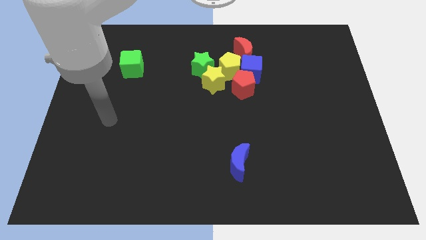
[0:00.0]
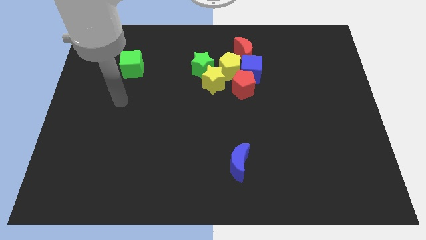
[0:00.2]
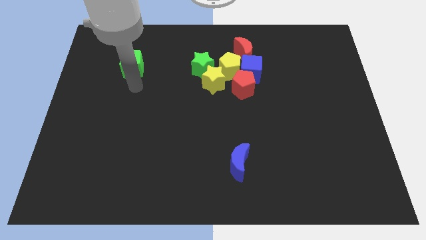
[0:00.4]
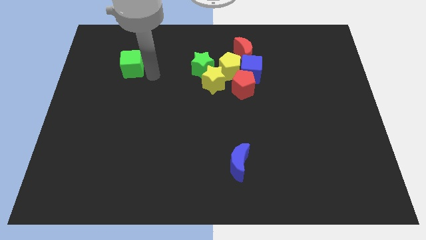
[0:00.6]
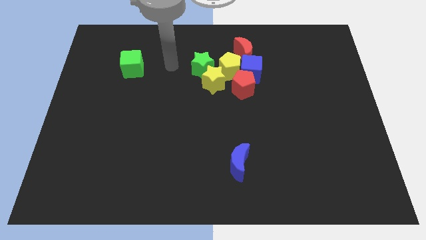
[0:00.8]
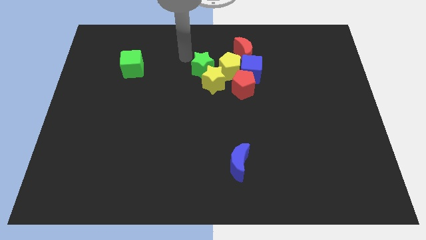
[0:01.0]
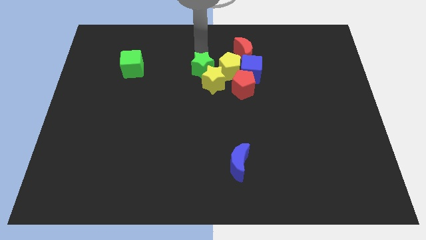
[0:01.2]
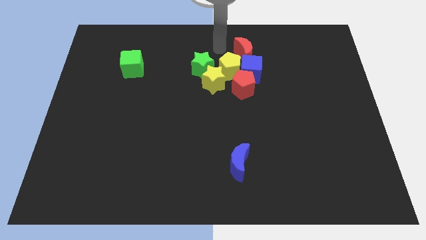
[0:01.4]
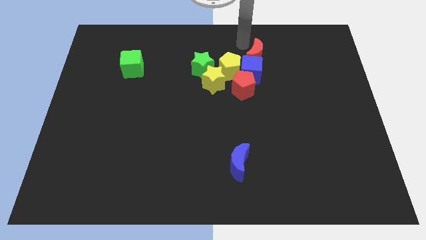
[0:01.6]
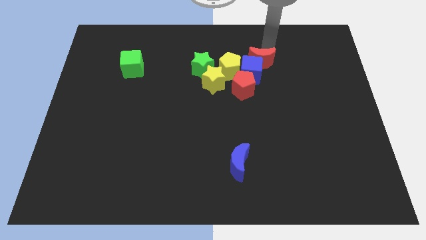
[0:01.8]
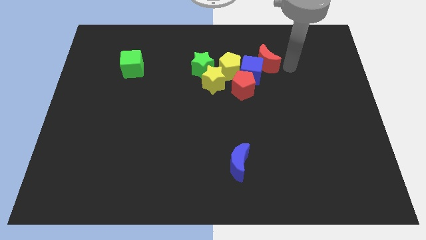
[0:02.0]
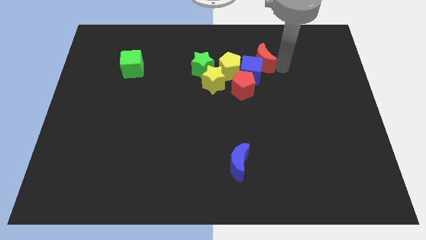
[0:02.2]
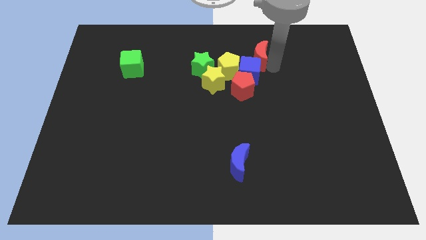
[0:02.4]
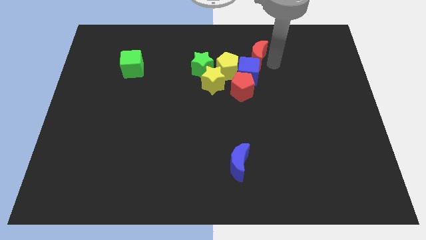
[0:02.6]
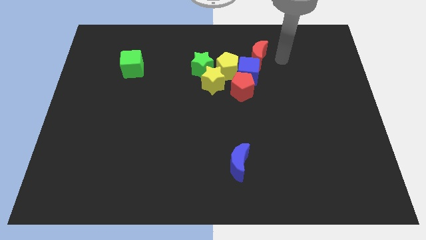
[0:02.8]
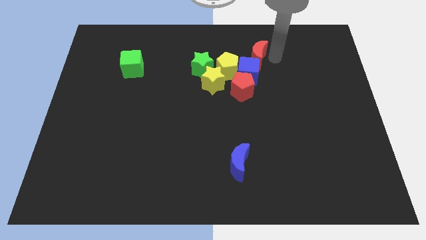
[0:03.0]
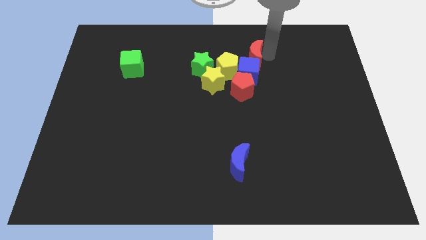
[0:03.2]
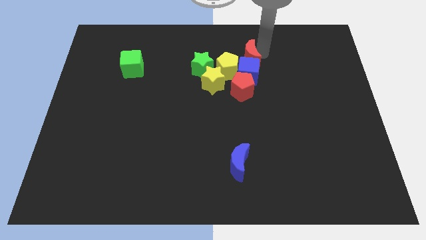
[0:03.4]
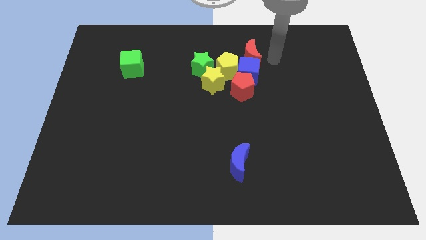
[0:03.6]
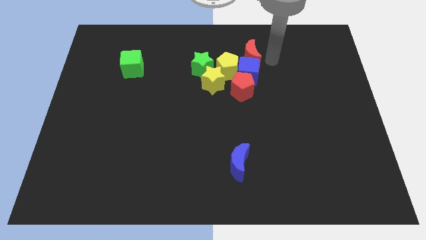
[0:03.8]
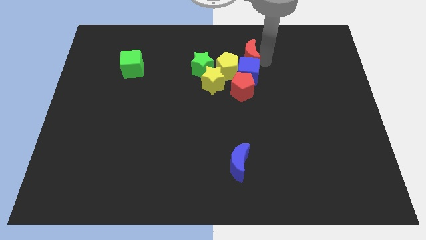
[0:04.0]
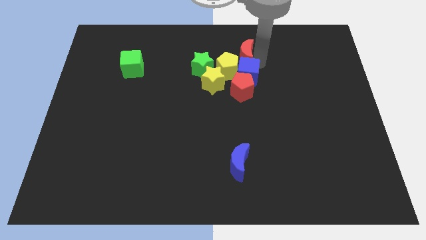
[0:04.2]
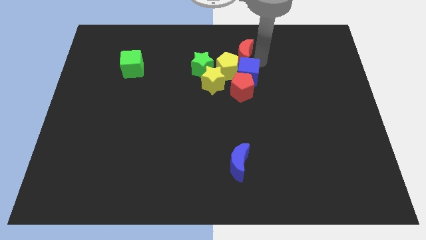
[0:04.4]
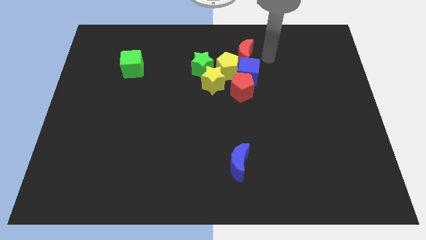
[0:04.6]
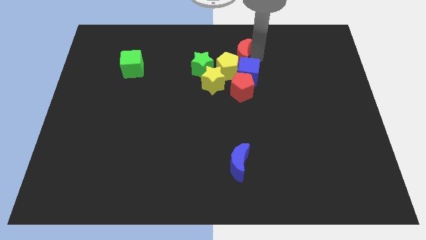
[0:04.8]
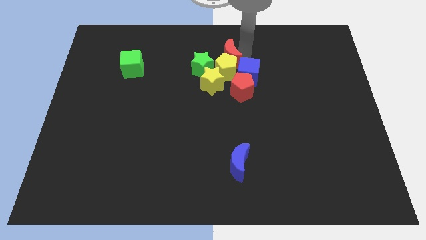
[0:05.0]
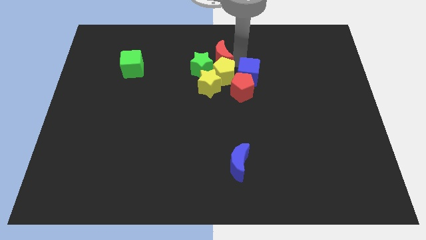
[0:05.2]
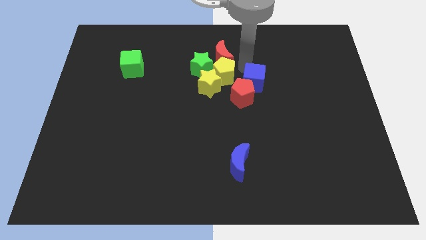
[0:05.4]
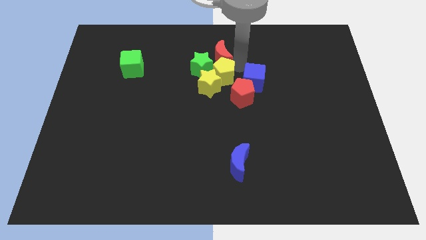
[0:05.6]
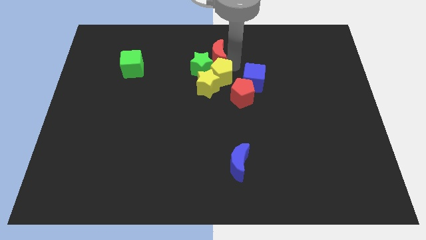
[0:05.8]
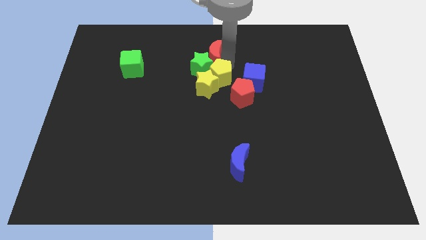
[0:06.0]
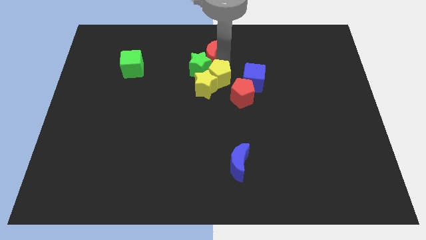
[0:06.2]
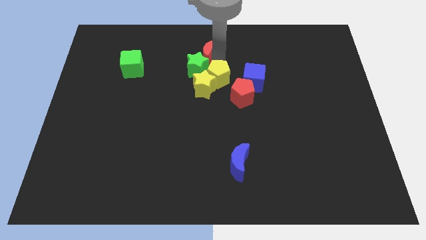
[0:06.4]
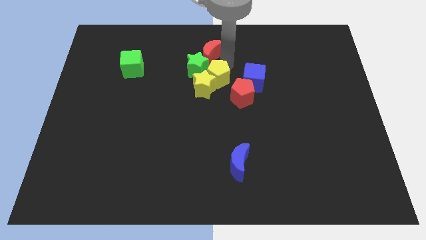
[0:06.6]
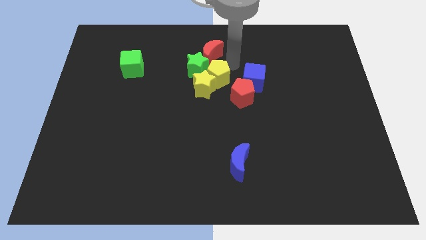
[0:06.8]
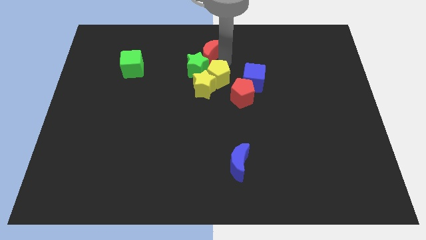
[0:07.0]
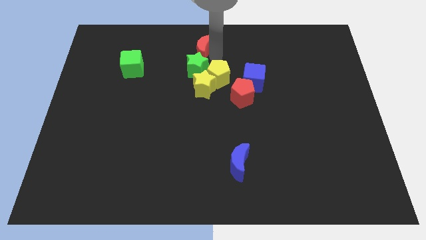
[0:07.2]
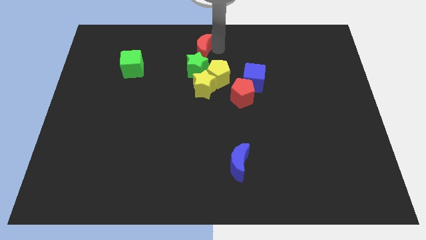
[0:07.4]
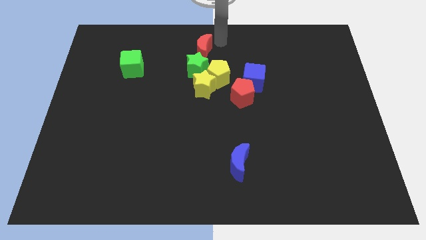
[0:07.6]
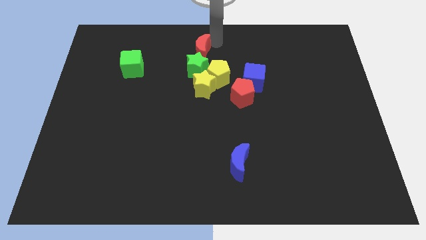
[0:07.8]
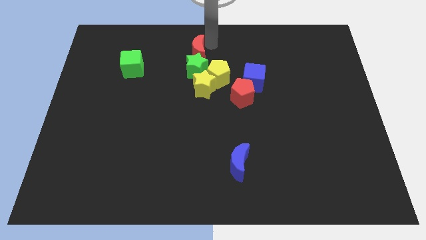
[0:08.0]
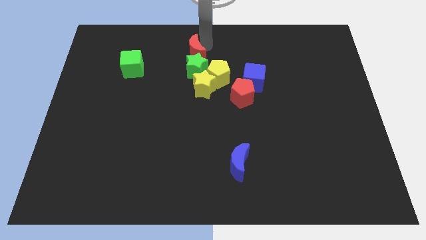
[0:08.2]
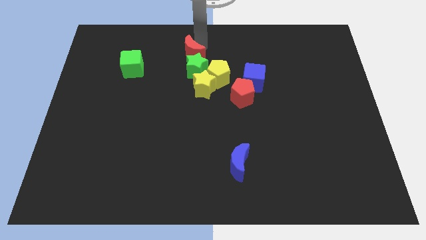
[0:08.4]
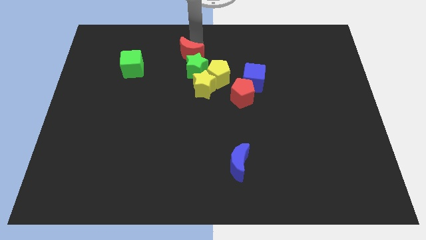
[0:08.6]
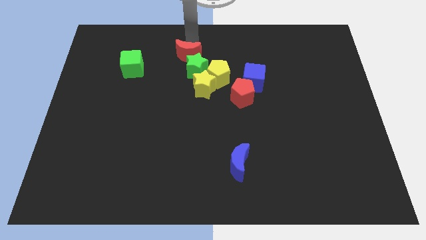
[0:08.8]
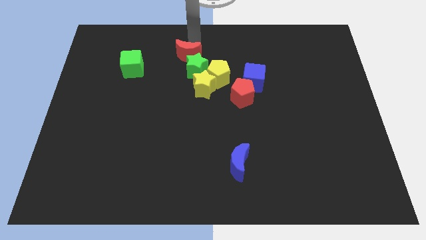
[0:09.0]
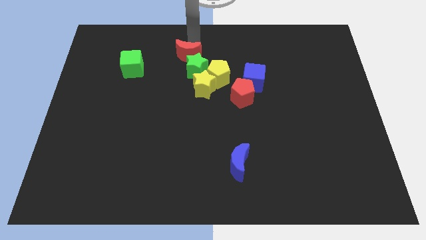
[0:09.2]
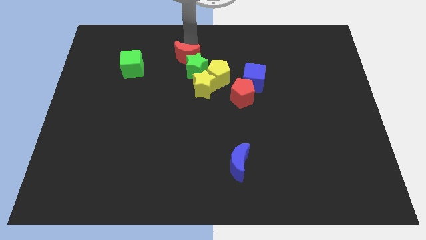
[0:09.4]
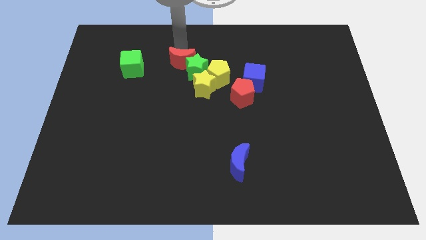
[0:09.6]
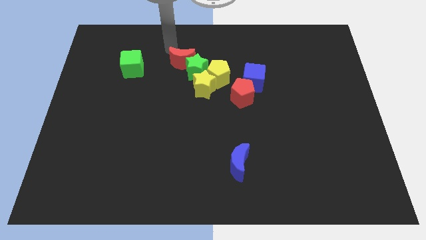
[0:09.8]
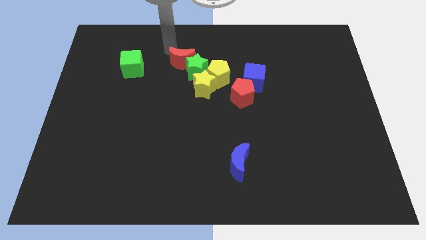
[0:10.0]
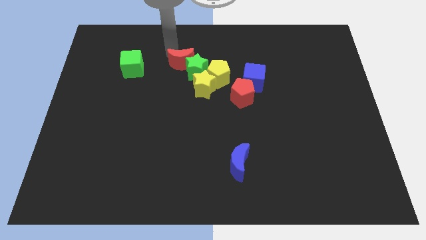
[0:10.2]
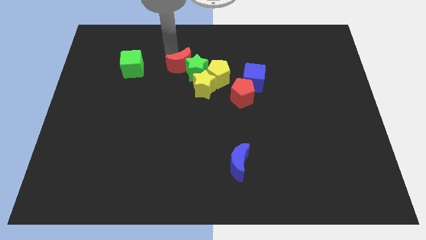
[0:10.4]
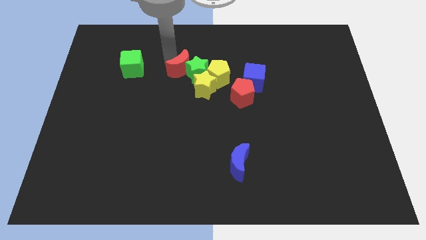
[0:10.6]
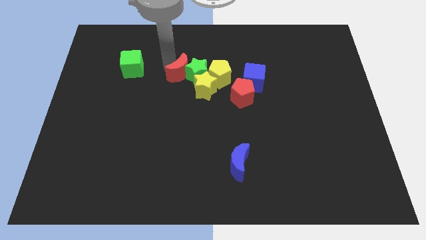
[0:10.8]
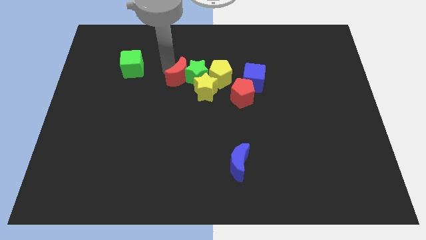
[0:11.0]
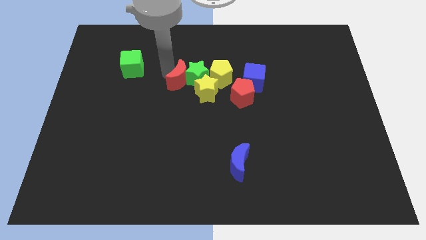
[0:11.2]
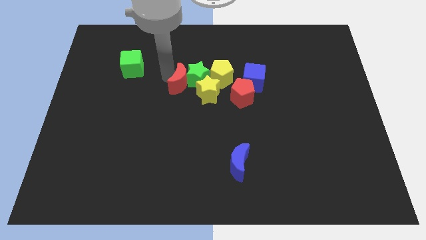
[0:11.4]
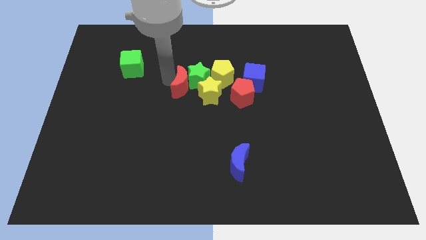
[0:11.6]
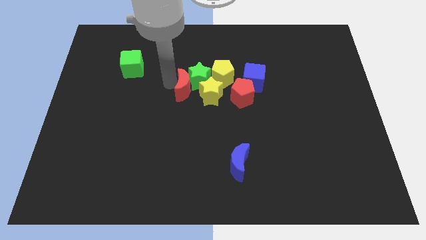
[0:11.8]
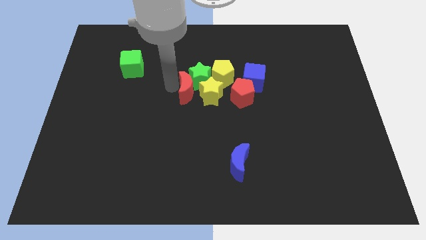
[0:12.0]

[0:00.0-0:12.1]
move the red moon next to the yellow star

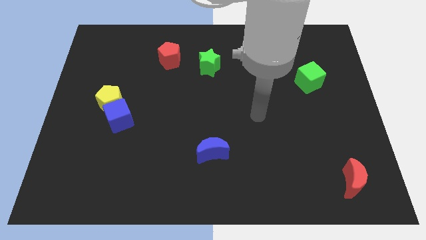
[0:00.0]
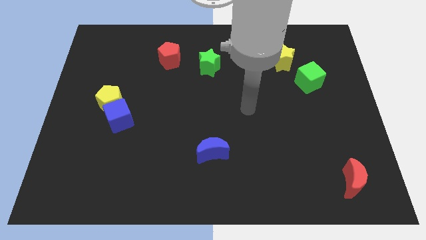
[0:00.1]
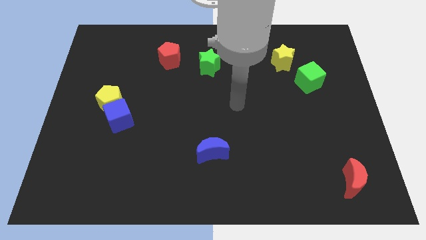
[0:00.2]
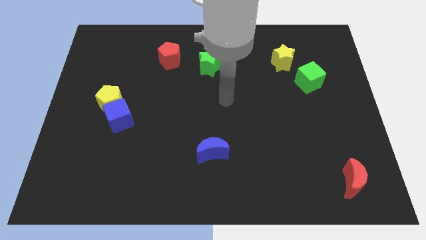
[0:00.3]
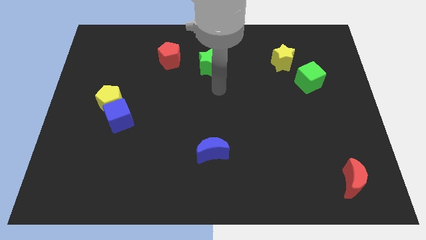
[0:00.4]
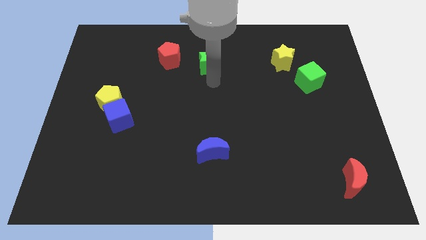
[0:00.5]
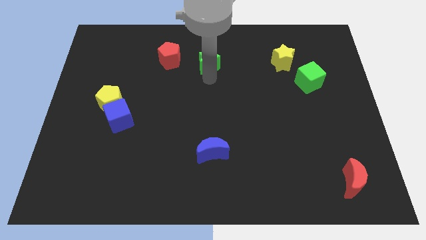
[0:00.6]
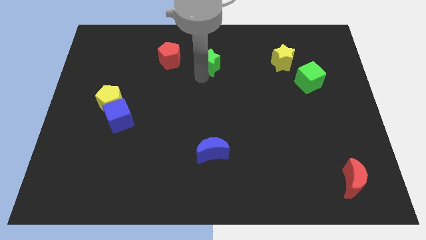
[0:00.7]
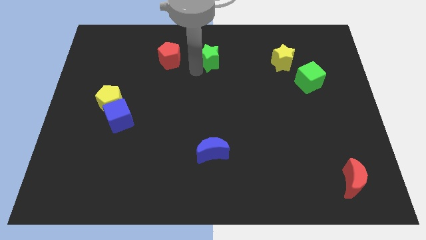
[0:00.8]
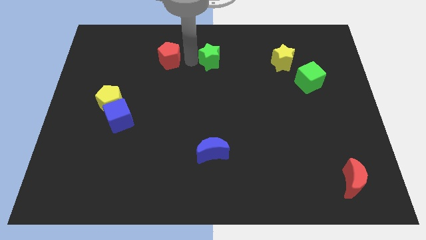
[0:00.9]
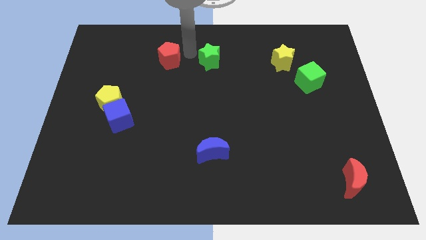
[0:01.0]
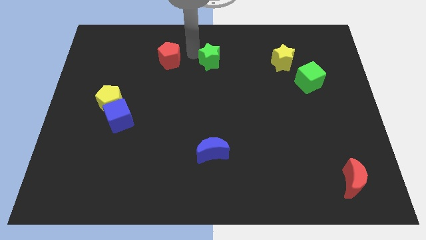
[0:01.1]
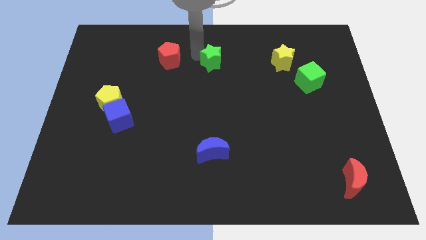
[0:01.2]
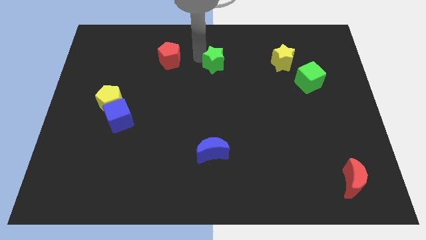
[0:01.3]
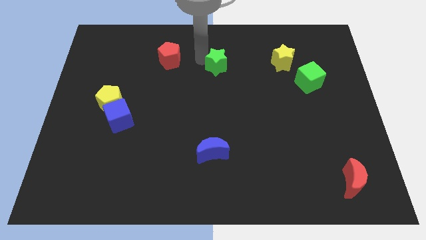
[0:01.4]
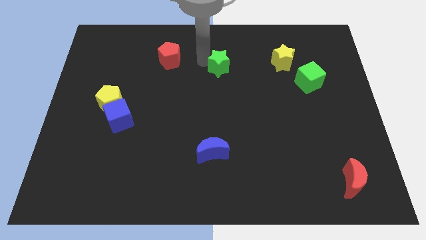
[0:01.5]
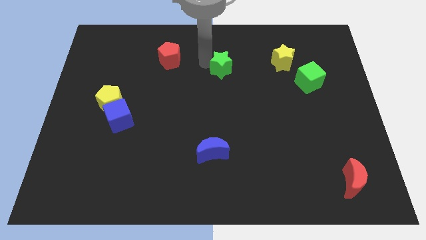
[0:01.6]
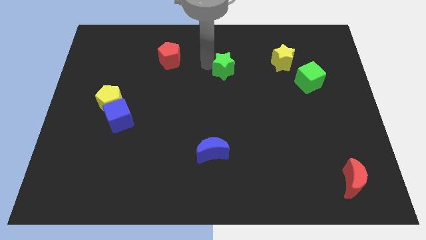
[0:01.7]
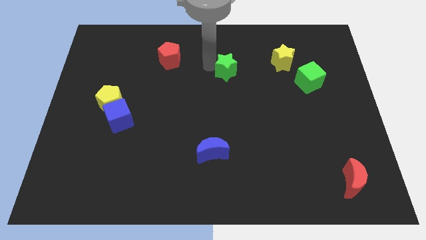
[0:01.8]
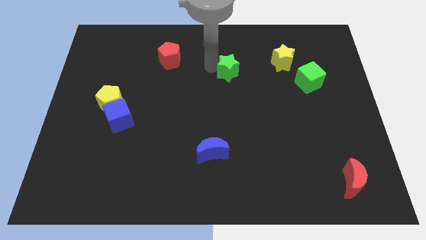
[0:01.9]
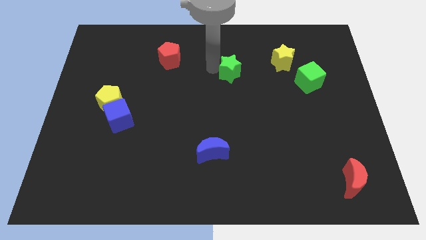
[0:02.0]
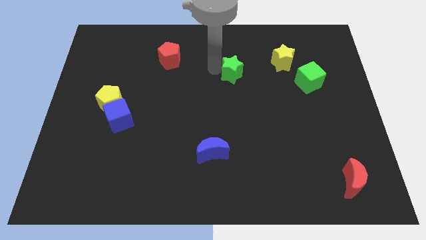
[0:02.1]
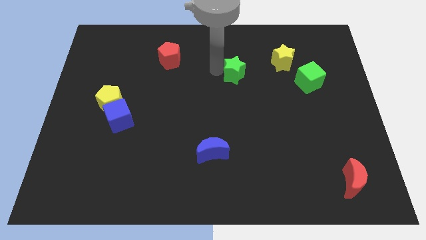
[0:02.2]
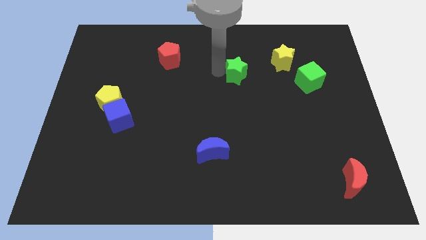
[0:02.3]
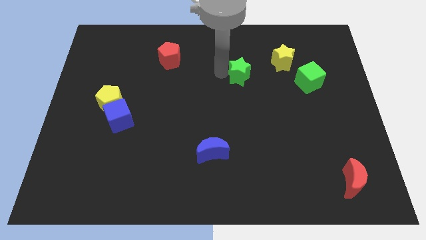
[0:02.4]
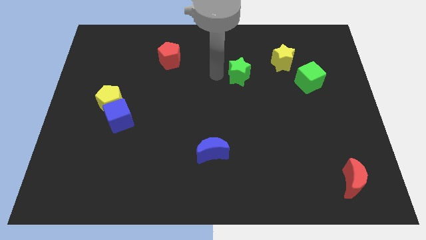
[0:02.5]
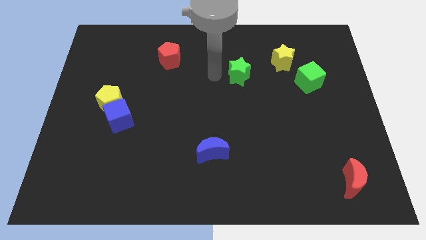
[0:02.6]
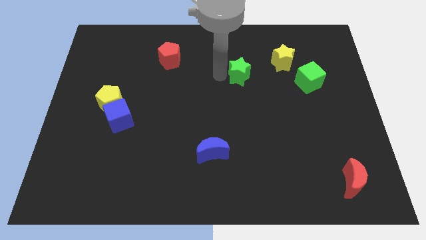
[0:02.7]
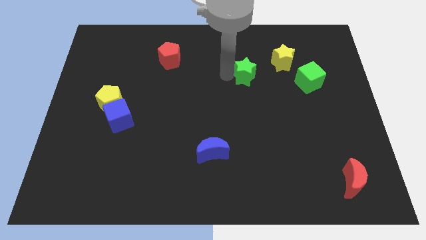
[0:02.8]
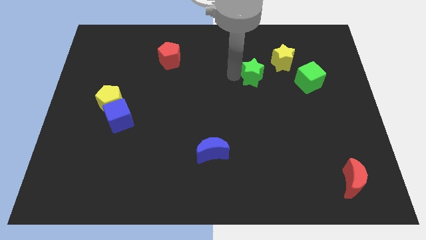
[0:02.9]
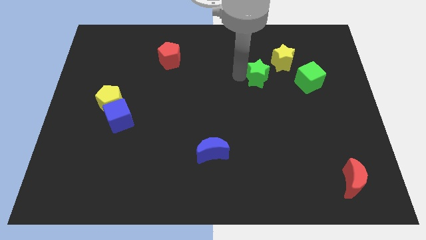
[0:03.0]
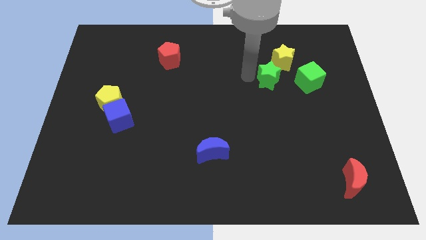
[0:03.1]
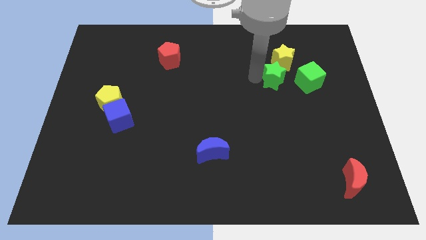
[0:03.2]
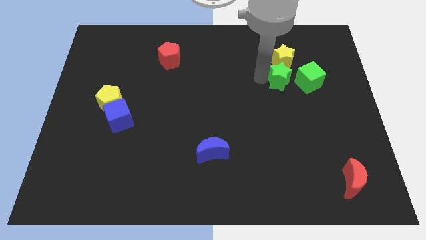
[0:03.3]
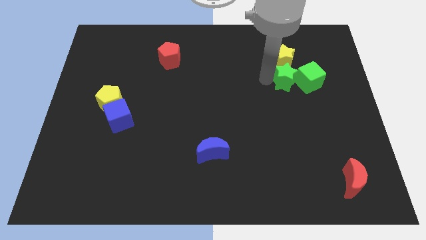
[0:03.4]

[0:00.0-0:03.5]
push the green star close to the green cube
